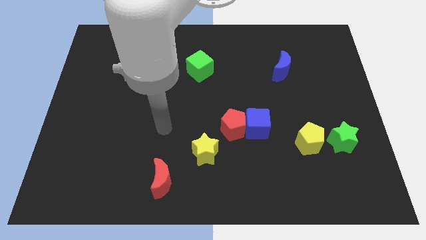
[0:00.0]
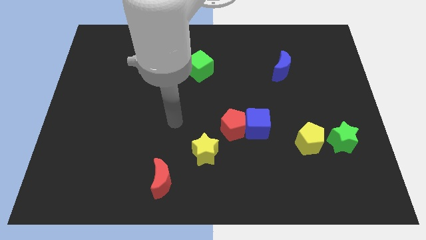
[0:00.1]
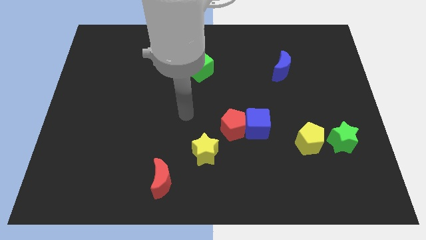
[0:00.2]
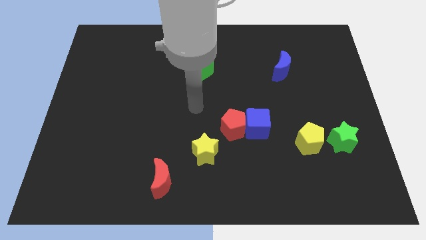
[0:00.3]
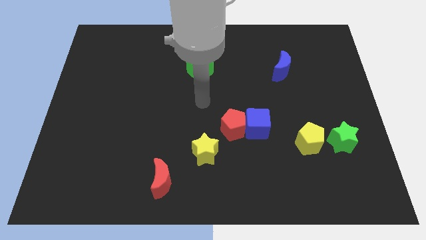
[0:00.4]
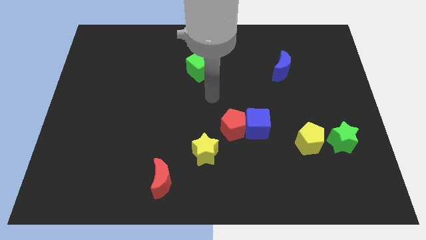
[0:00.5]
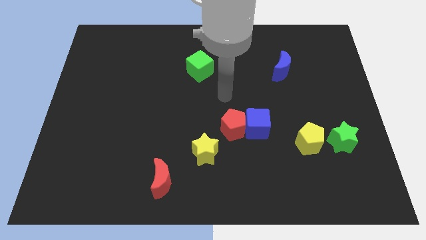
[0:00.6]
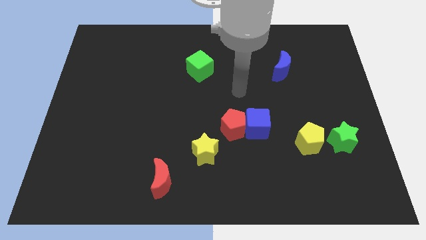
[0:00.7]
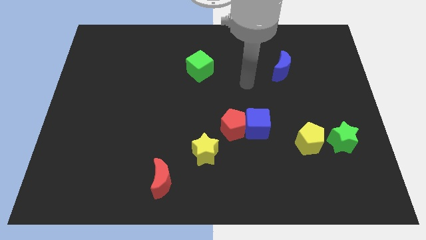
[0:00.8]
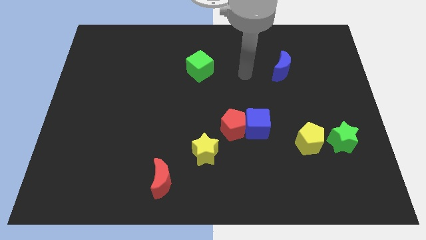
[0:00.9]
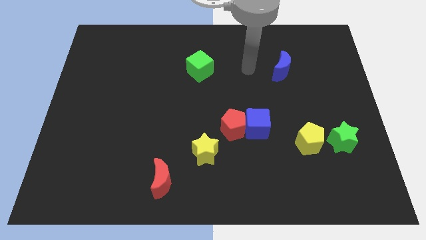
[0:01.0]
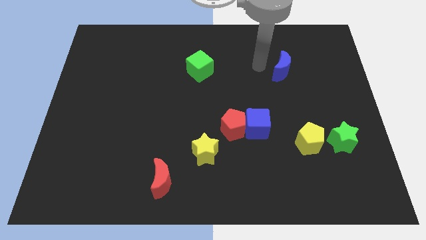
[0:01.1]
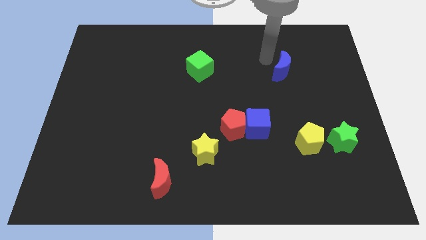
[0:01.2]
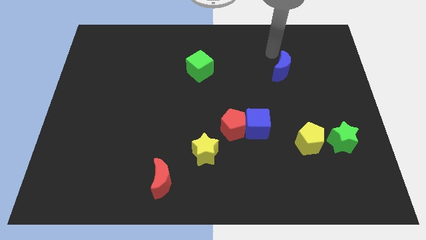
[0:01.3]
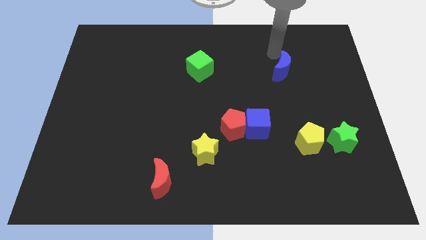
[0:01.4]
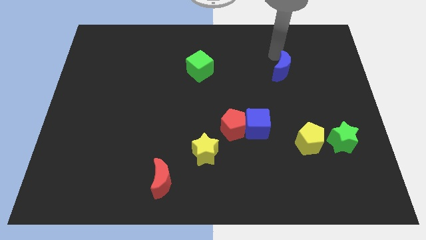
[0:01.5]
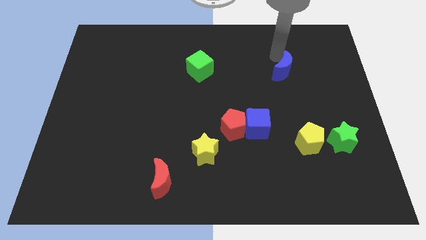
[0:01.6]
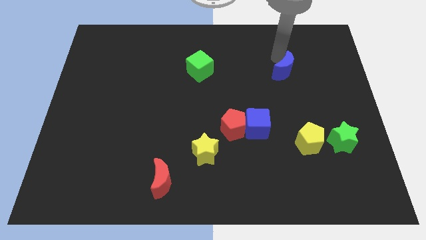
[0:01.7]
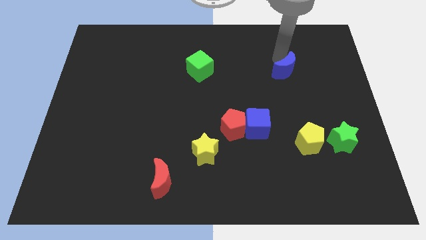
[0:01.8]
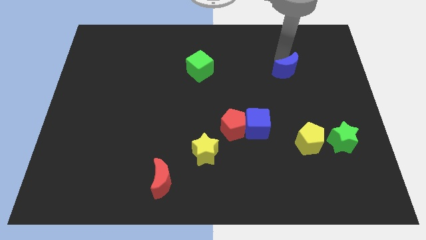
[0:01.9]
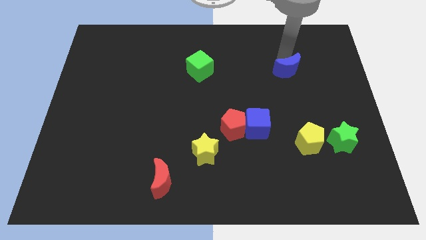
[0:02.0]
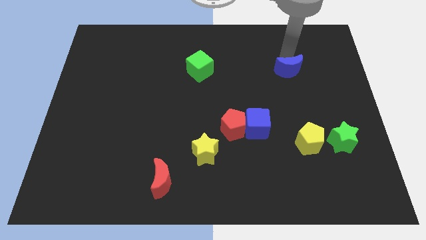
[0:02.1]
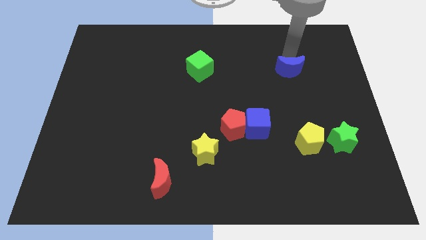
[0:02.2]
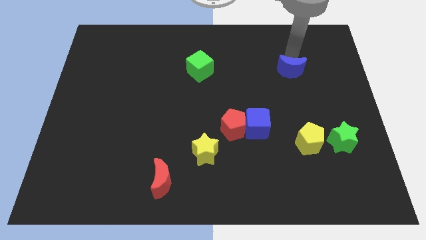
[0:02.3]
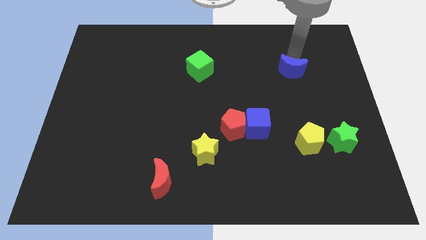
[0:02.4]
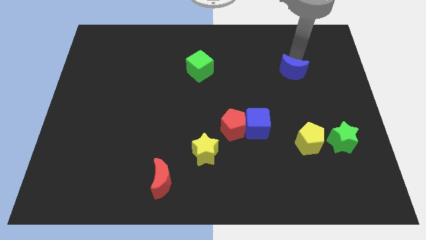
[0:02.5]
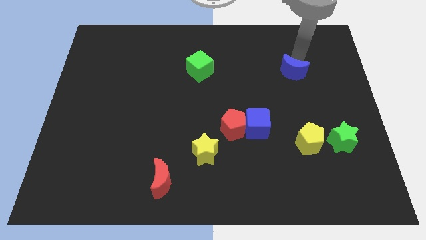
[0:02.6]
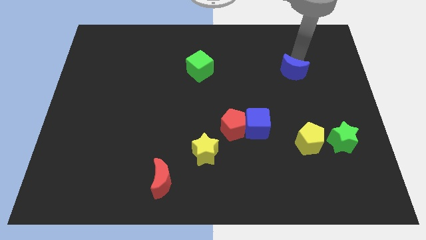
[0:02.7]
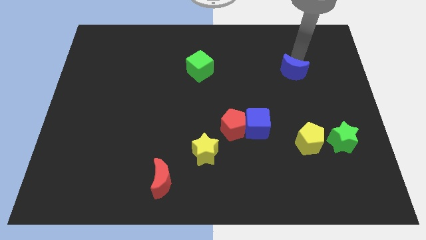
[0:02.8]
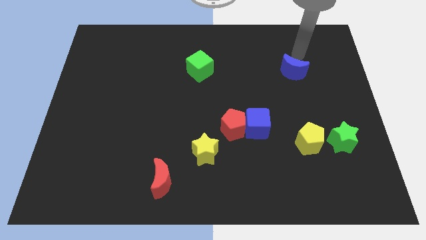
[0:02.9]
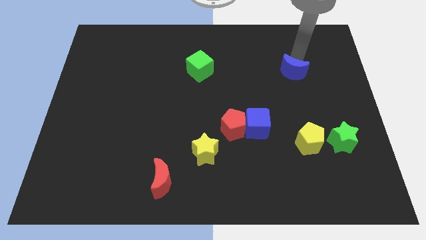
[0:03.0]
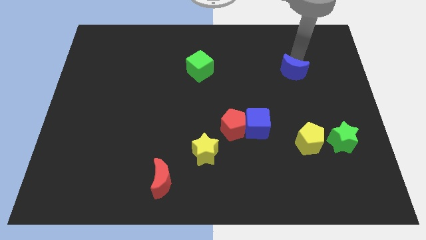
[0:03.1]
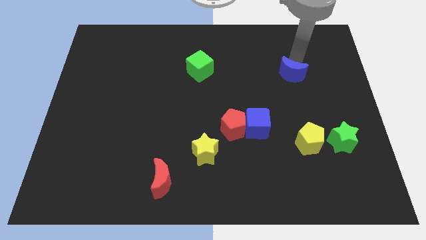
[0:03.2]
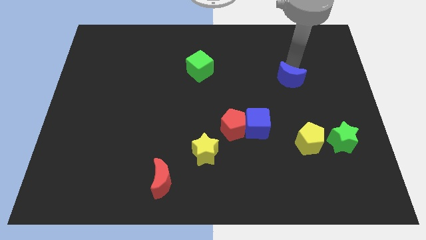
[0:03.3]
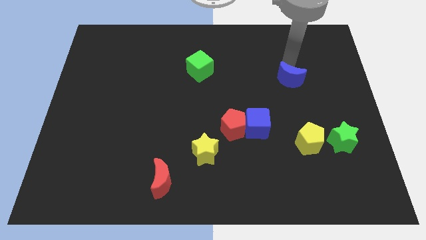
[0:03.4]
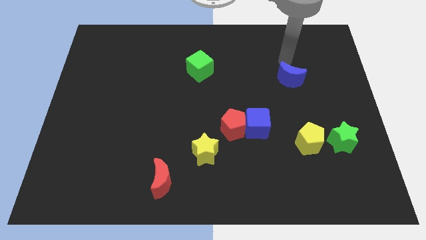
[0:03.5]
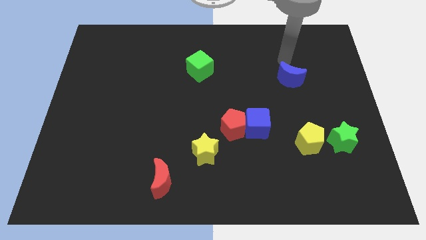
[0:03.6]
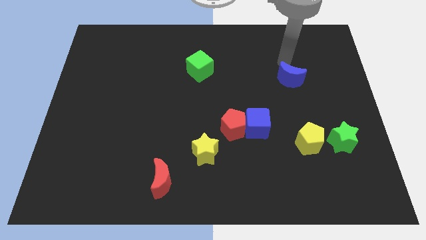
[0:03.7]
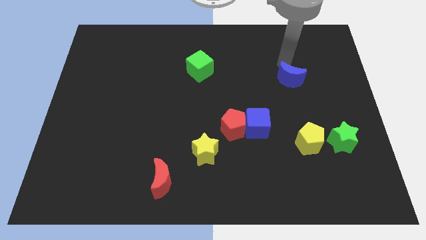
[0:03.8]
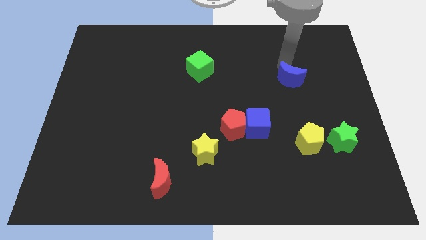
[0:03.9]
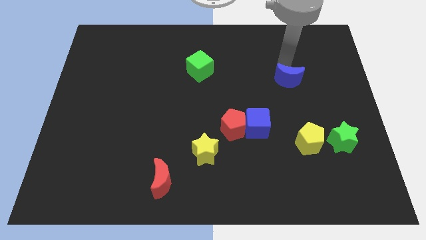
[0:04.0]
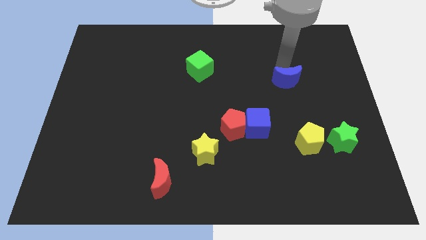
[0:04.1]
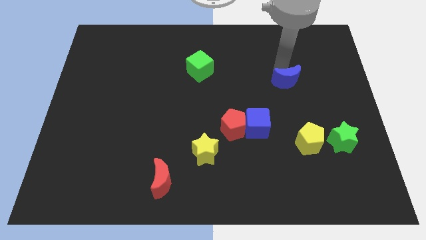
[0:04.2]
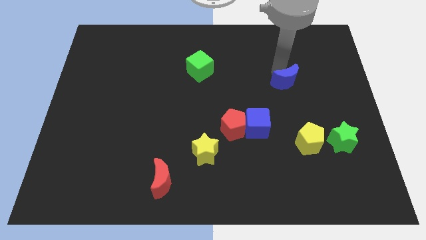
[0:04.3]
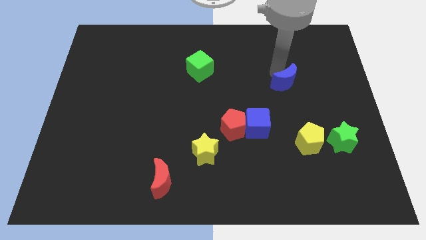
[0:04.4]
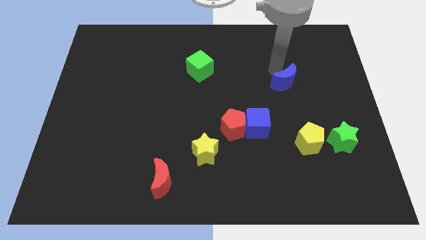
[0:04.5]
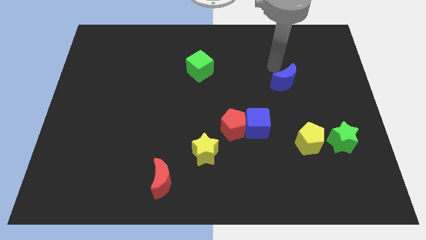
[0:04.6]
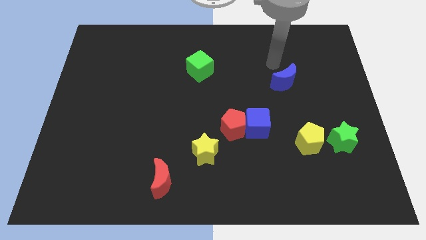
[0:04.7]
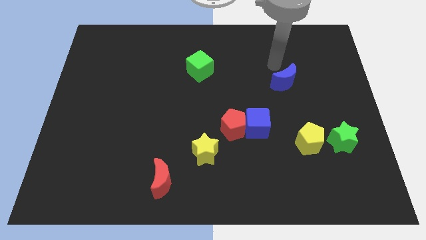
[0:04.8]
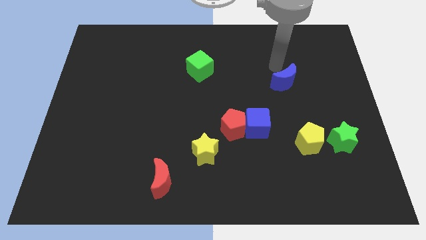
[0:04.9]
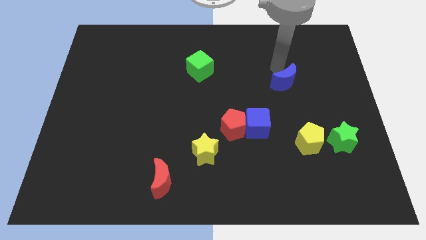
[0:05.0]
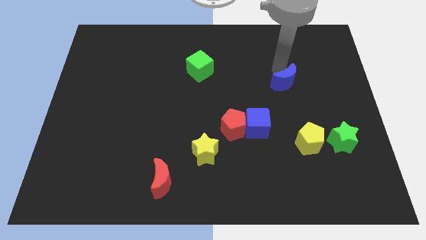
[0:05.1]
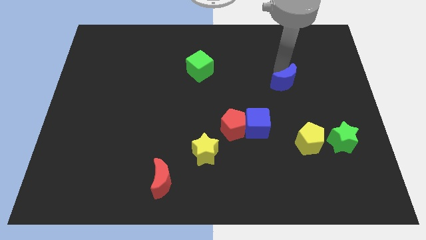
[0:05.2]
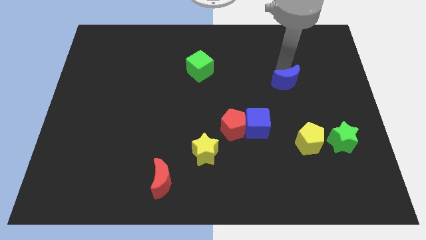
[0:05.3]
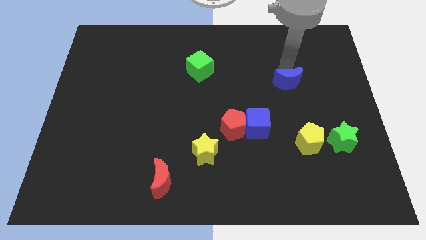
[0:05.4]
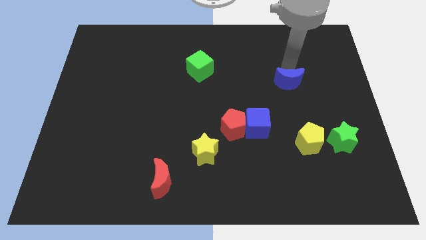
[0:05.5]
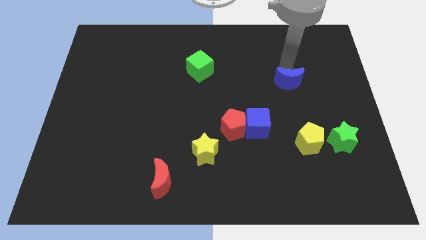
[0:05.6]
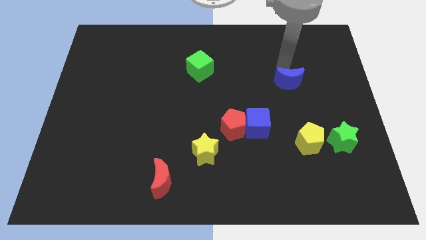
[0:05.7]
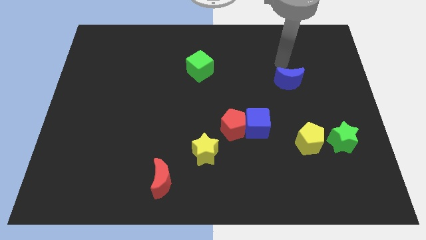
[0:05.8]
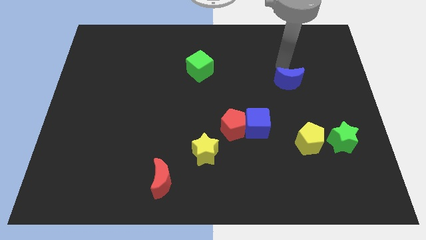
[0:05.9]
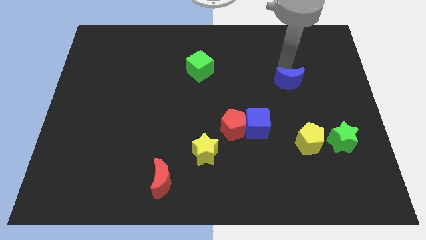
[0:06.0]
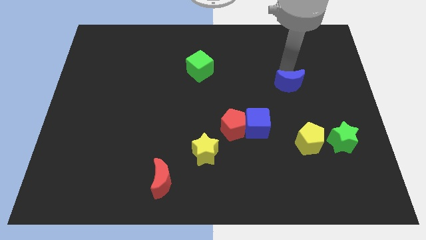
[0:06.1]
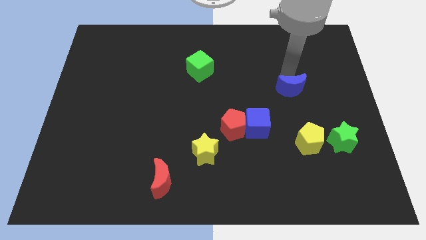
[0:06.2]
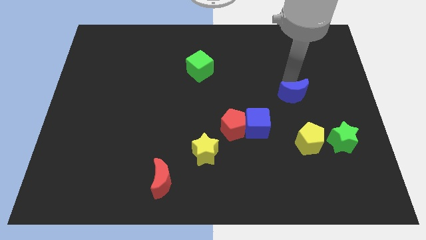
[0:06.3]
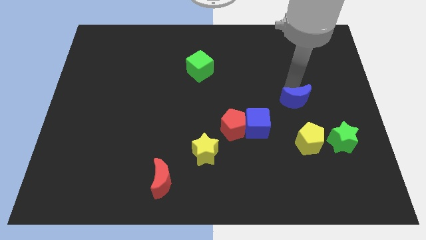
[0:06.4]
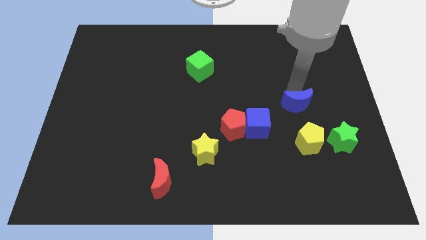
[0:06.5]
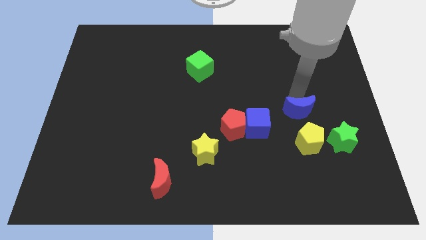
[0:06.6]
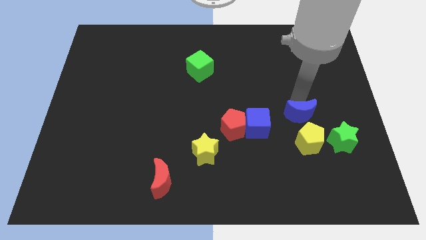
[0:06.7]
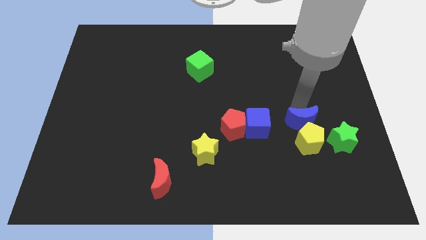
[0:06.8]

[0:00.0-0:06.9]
slide the blue moon close to the yellow pentagon

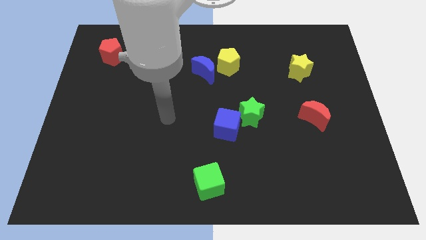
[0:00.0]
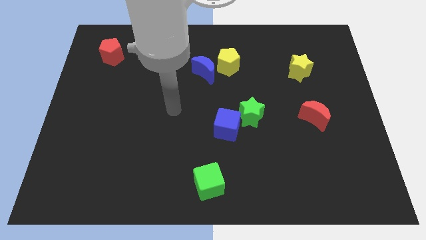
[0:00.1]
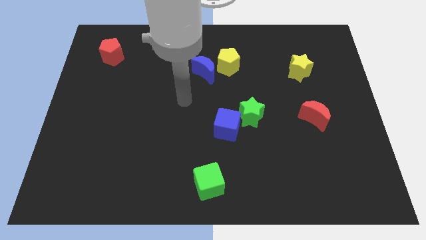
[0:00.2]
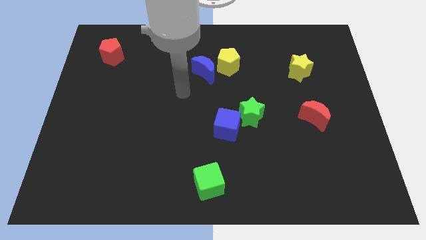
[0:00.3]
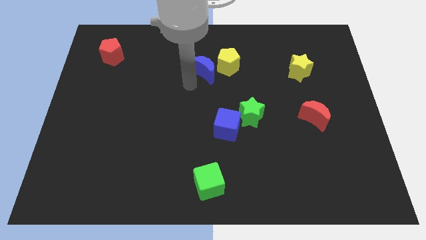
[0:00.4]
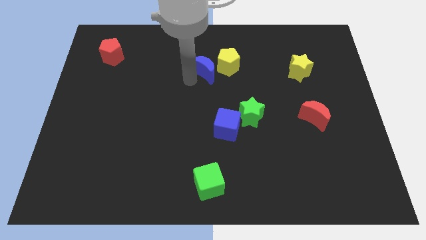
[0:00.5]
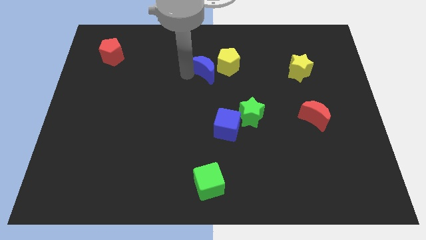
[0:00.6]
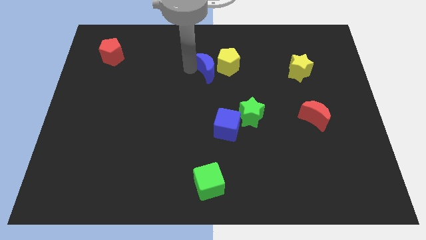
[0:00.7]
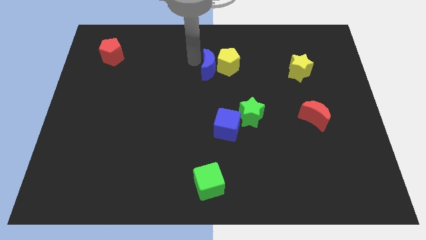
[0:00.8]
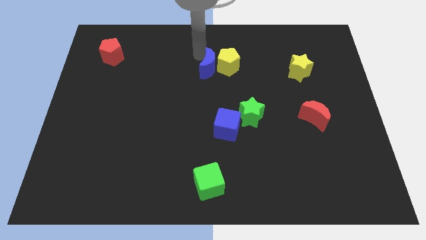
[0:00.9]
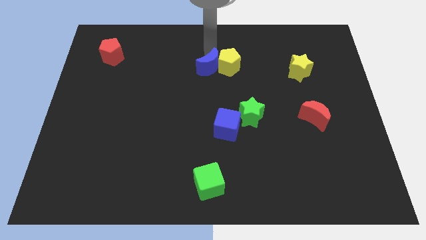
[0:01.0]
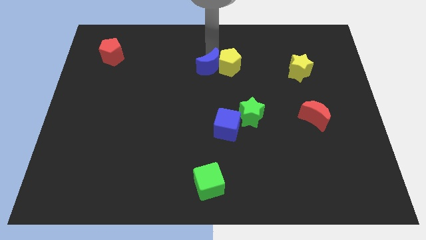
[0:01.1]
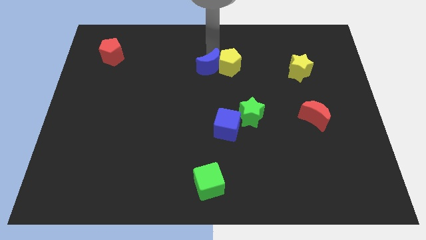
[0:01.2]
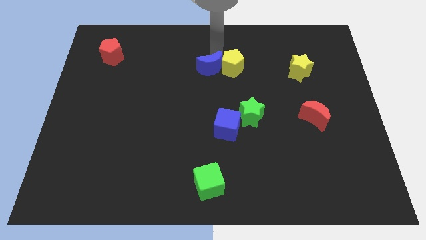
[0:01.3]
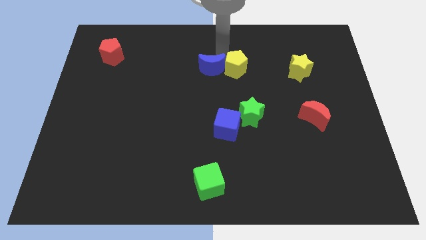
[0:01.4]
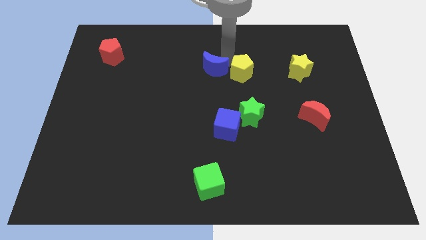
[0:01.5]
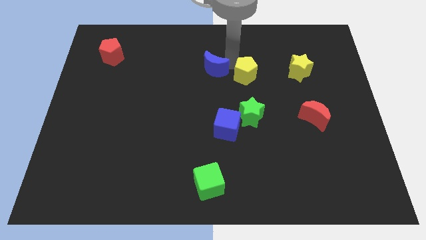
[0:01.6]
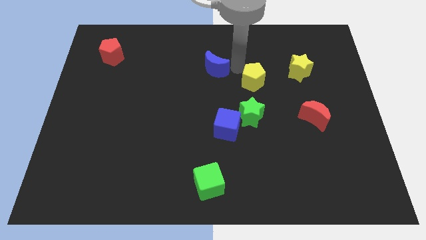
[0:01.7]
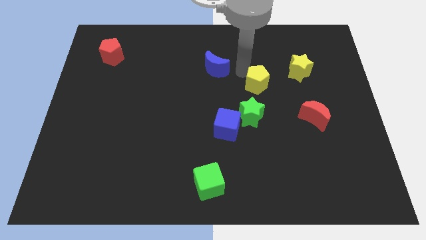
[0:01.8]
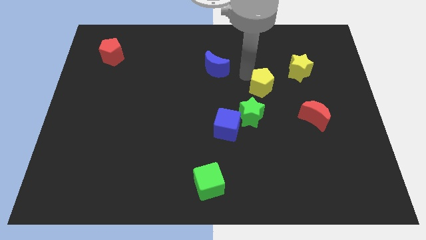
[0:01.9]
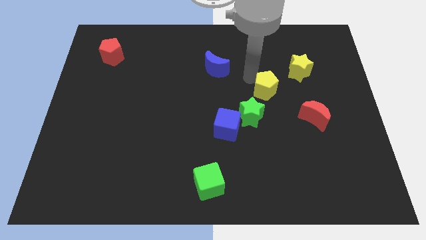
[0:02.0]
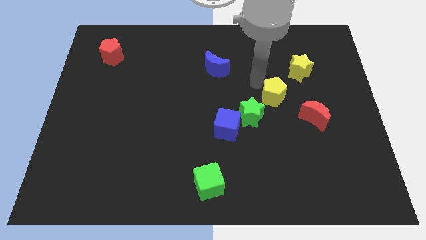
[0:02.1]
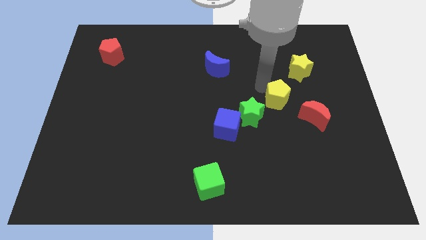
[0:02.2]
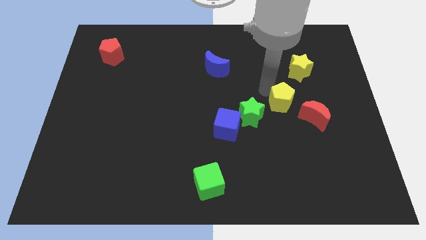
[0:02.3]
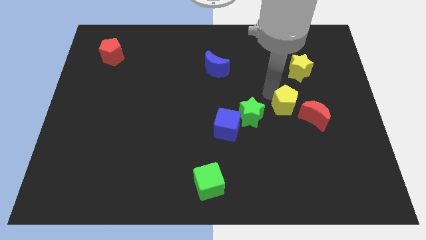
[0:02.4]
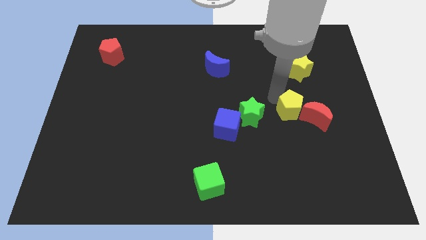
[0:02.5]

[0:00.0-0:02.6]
put the yellow pentagon next to the red moon
